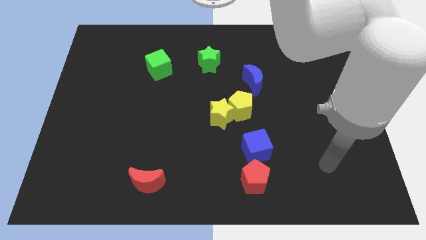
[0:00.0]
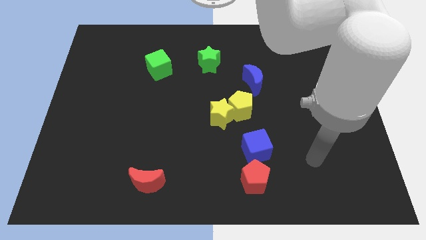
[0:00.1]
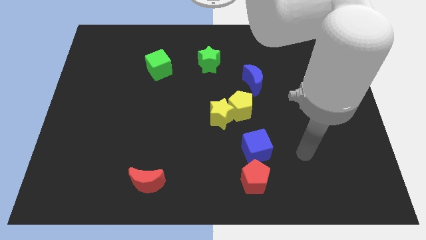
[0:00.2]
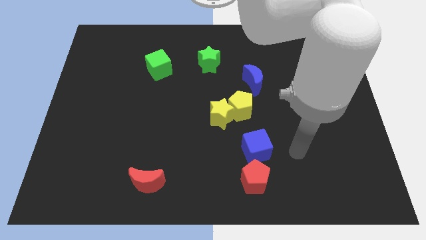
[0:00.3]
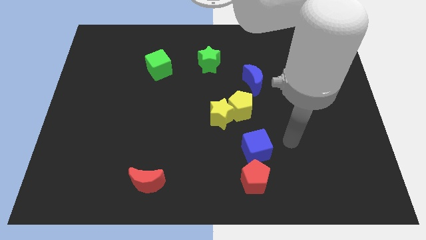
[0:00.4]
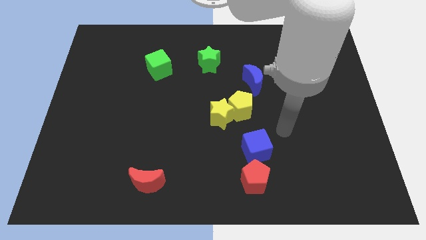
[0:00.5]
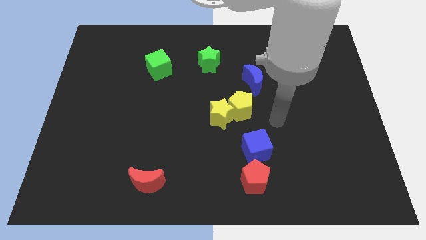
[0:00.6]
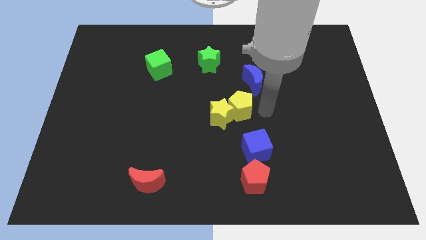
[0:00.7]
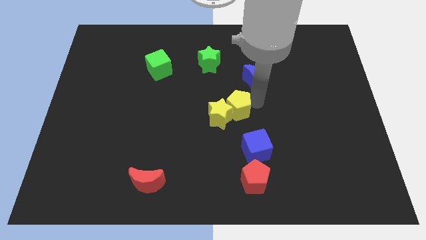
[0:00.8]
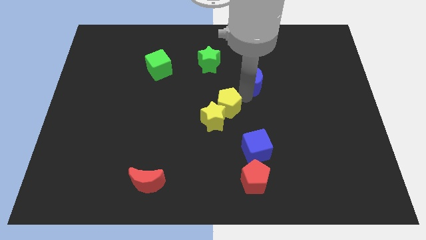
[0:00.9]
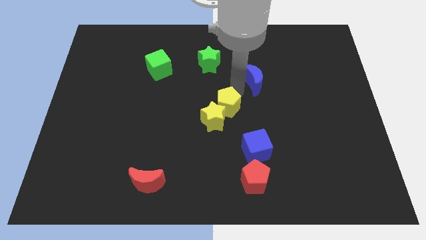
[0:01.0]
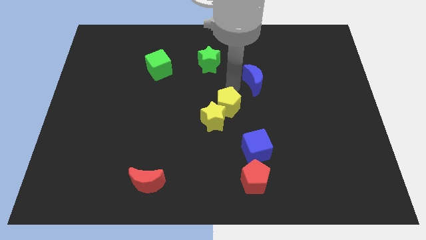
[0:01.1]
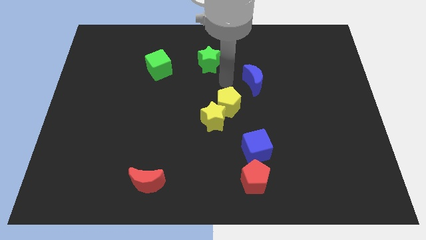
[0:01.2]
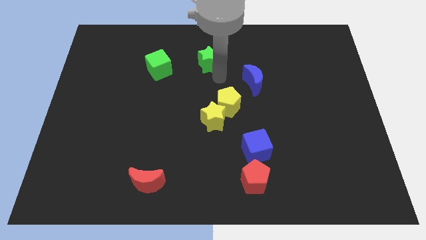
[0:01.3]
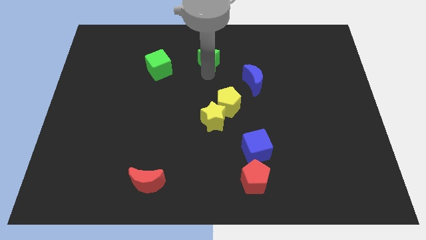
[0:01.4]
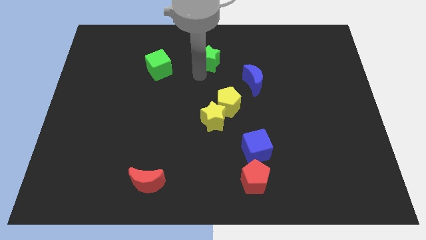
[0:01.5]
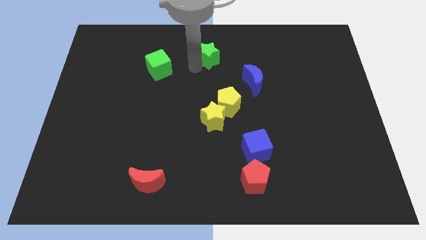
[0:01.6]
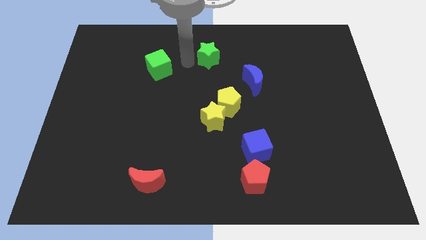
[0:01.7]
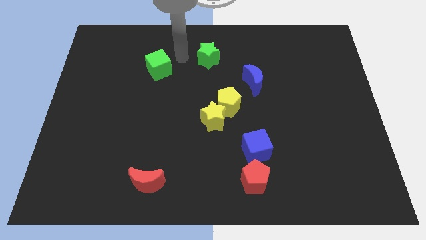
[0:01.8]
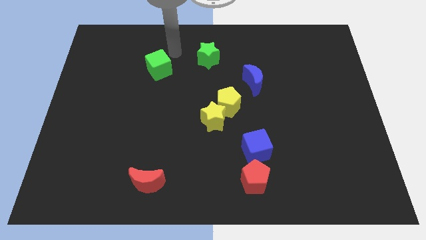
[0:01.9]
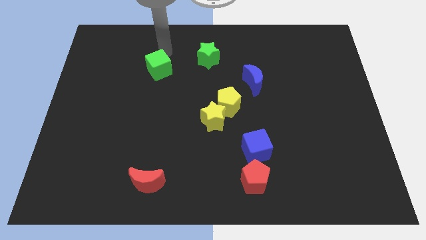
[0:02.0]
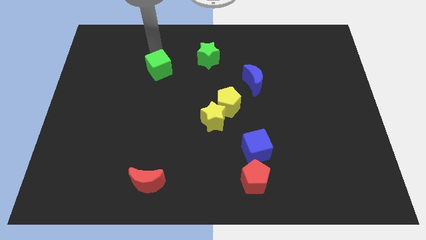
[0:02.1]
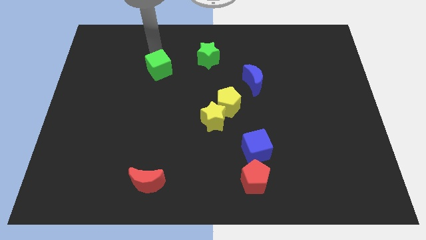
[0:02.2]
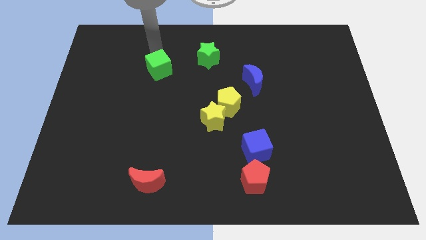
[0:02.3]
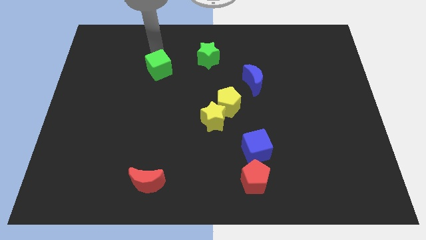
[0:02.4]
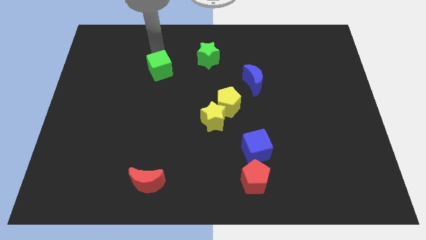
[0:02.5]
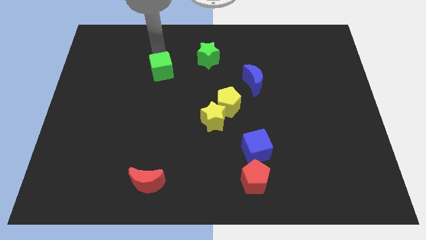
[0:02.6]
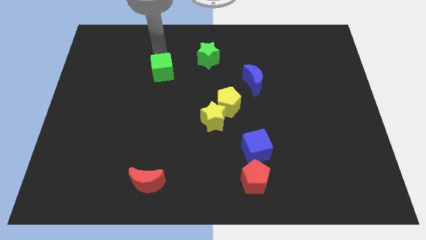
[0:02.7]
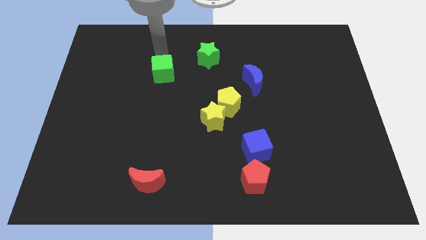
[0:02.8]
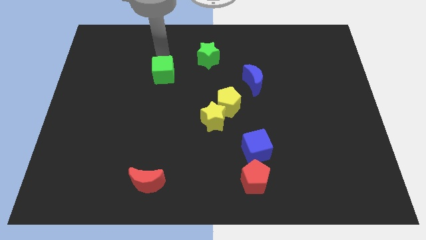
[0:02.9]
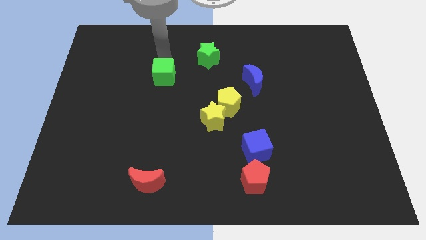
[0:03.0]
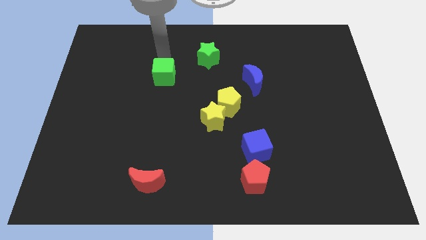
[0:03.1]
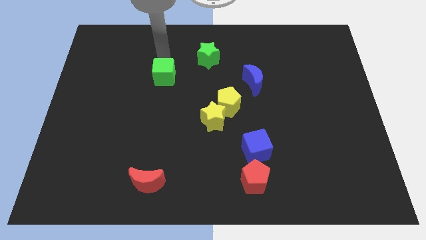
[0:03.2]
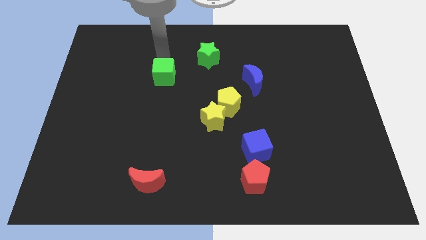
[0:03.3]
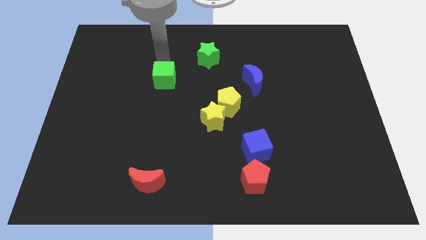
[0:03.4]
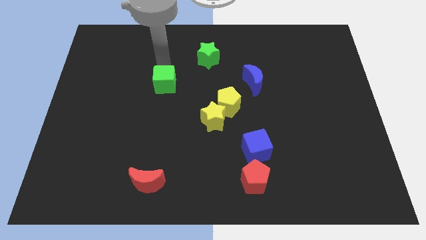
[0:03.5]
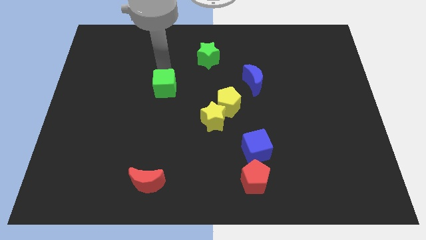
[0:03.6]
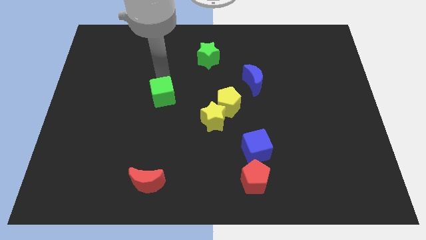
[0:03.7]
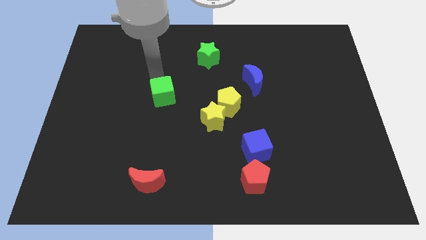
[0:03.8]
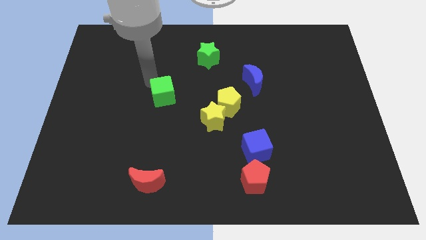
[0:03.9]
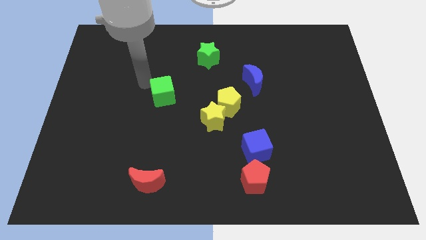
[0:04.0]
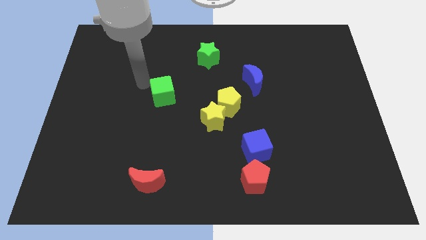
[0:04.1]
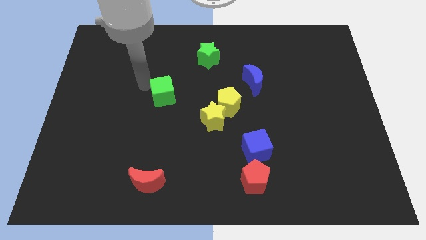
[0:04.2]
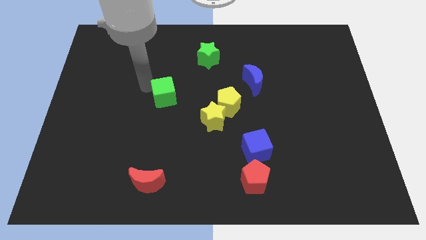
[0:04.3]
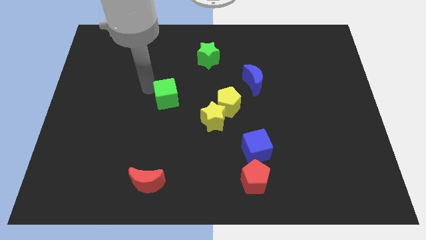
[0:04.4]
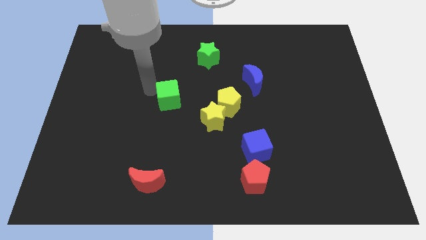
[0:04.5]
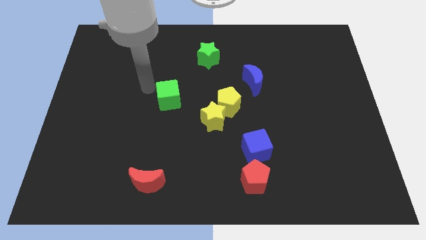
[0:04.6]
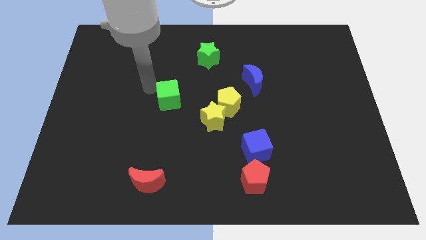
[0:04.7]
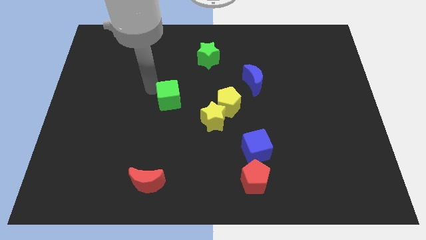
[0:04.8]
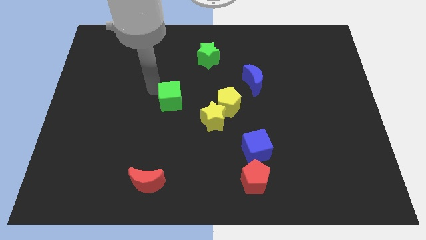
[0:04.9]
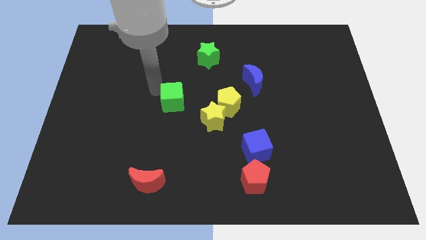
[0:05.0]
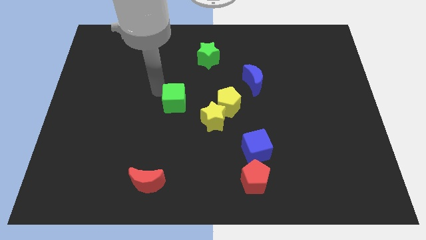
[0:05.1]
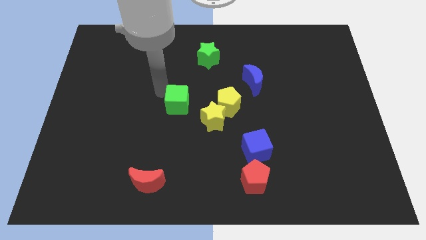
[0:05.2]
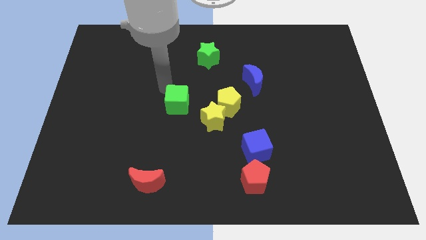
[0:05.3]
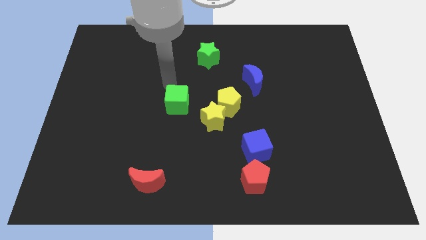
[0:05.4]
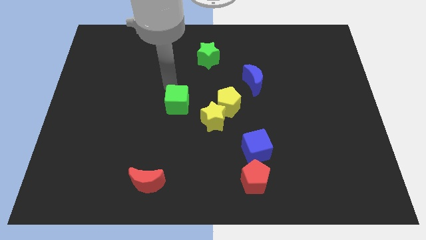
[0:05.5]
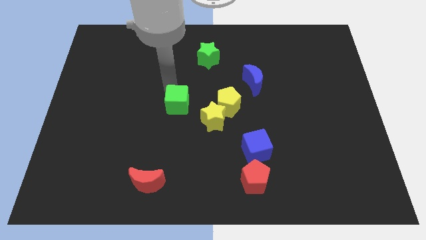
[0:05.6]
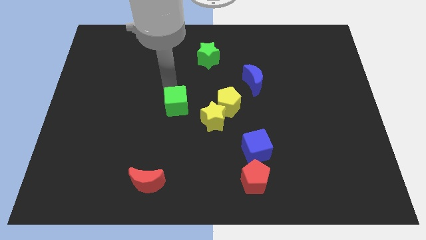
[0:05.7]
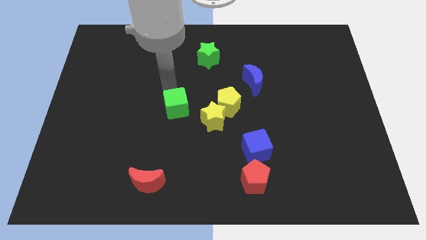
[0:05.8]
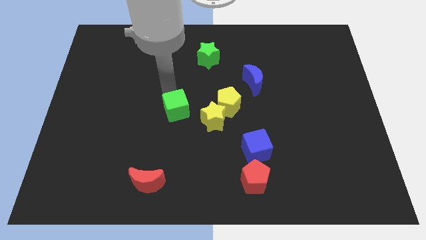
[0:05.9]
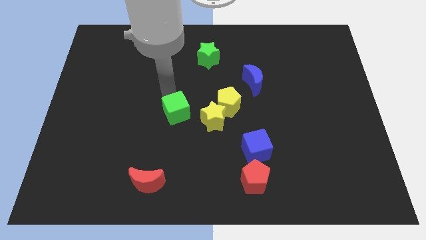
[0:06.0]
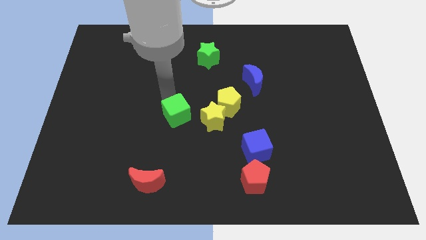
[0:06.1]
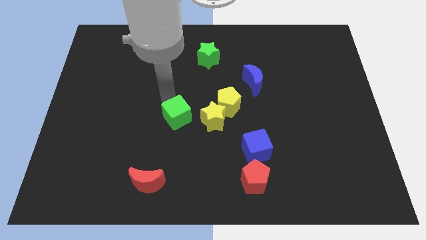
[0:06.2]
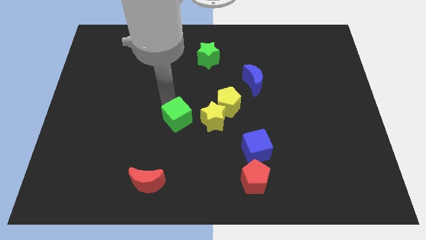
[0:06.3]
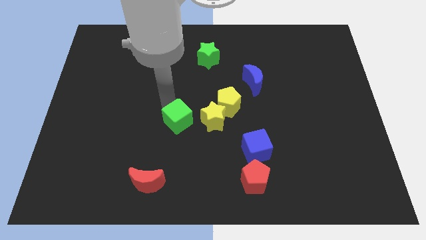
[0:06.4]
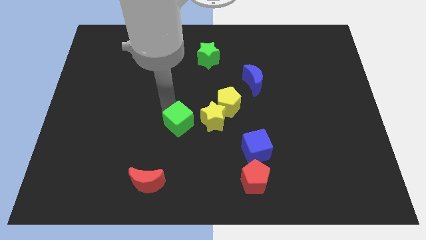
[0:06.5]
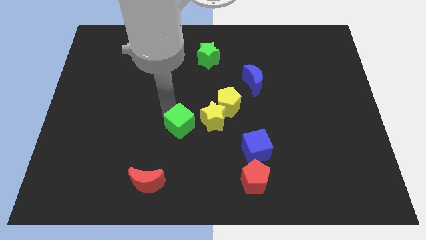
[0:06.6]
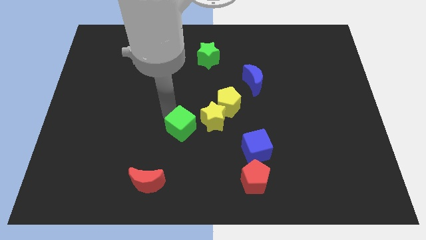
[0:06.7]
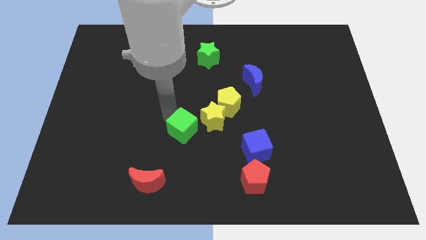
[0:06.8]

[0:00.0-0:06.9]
put the green cube to the bottom left side of the yellow pentagon

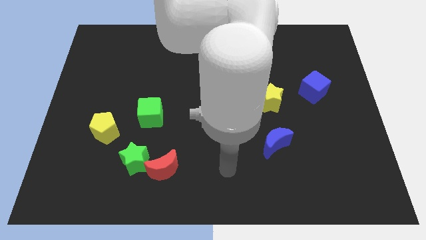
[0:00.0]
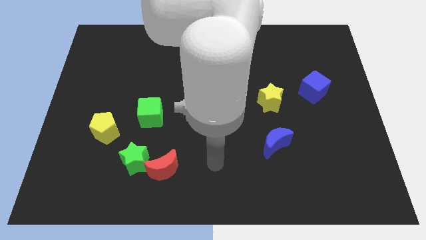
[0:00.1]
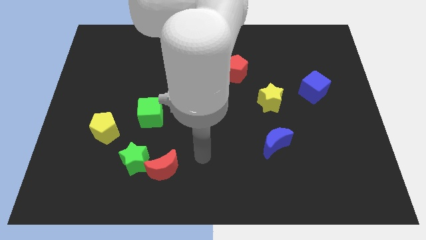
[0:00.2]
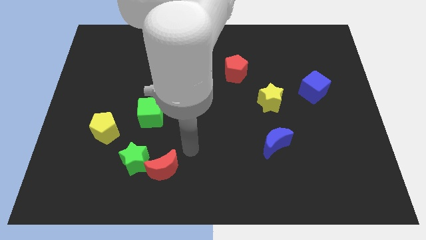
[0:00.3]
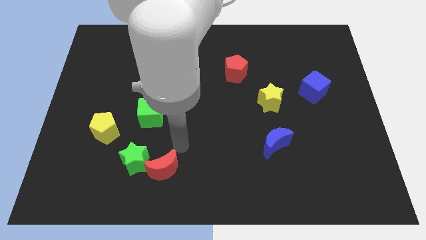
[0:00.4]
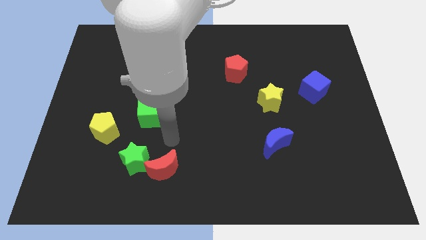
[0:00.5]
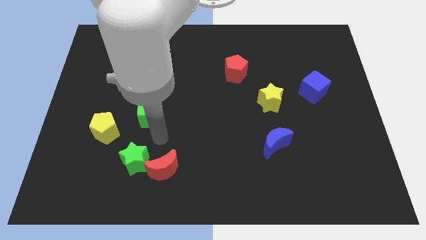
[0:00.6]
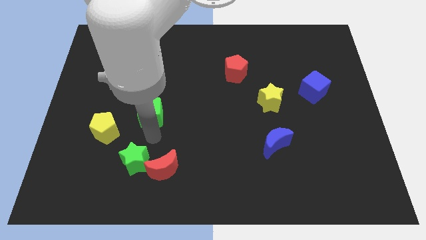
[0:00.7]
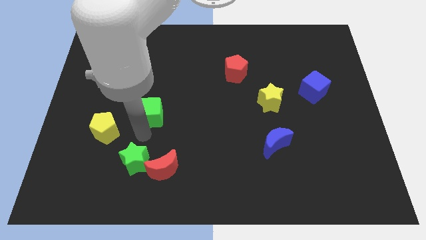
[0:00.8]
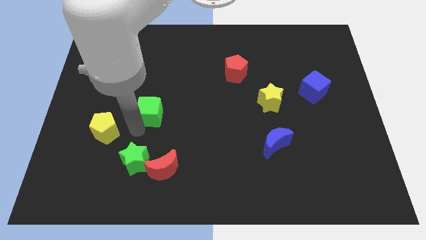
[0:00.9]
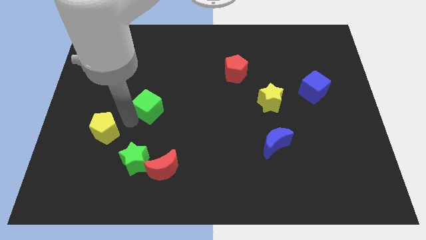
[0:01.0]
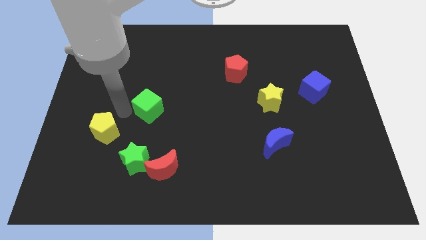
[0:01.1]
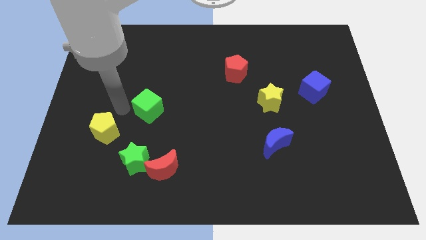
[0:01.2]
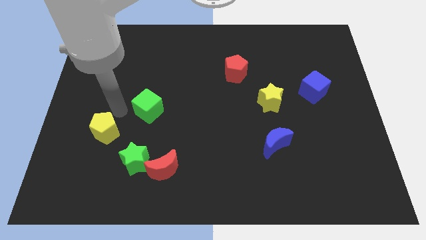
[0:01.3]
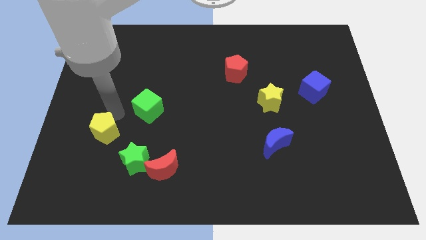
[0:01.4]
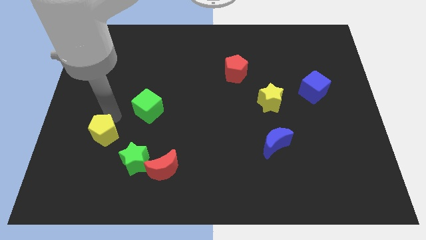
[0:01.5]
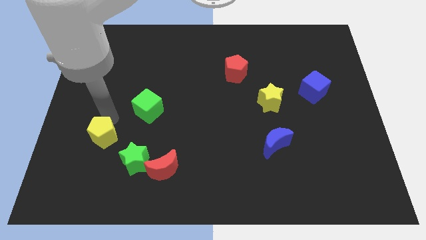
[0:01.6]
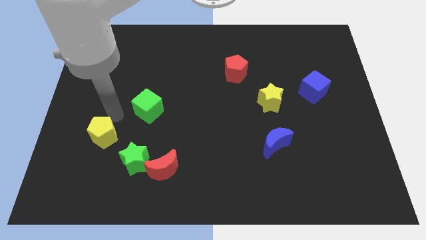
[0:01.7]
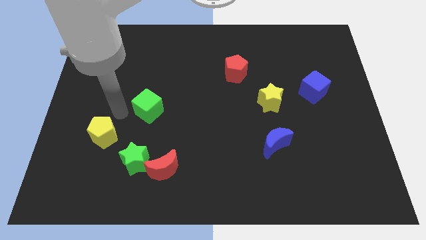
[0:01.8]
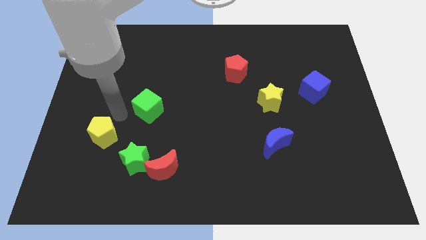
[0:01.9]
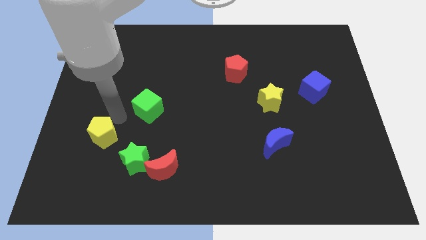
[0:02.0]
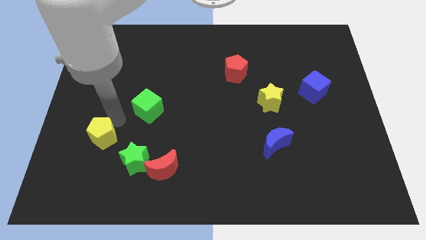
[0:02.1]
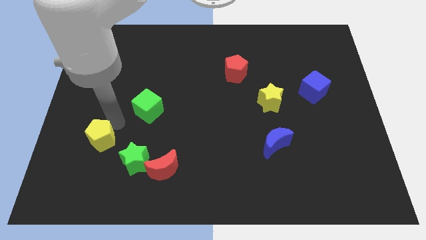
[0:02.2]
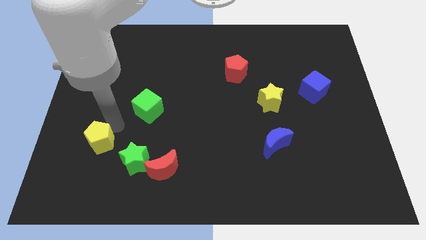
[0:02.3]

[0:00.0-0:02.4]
put the yellow pentagon to the left of the green star
